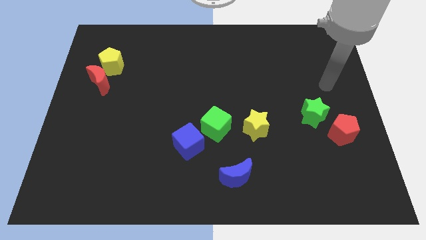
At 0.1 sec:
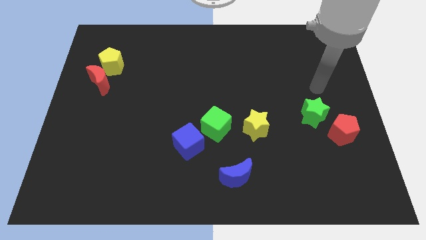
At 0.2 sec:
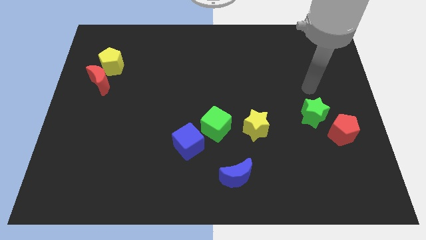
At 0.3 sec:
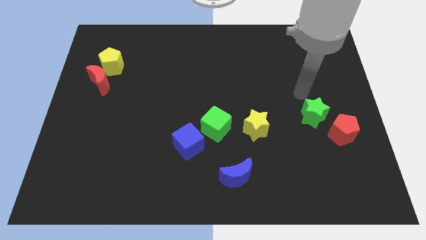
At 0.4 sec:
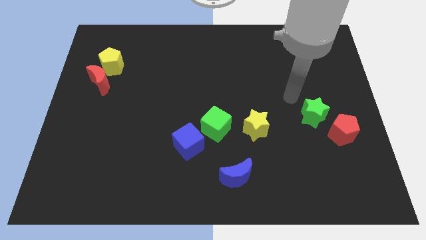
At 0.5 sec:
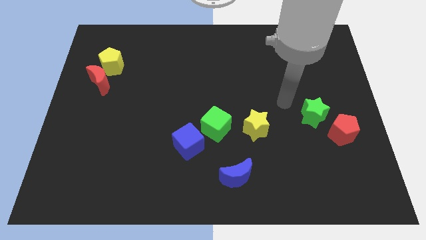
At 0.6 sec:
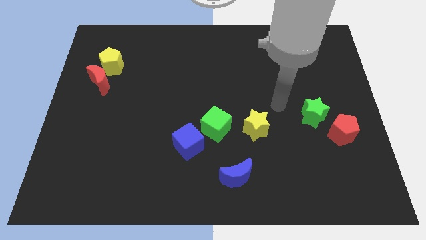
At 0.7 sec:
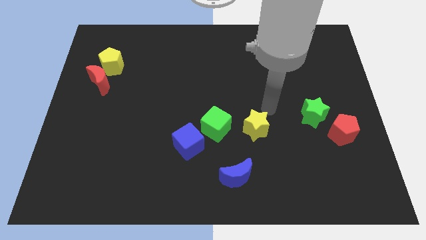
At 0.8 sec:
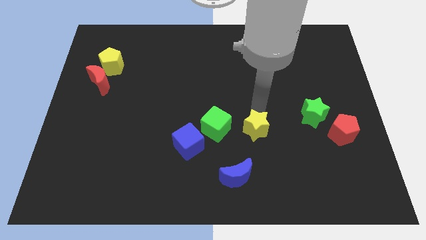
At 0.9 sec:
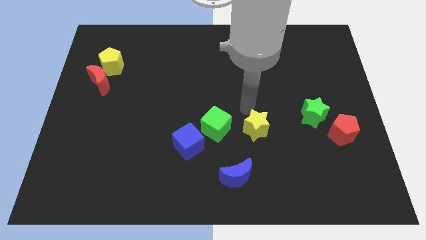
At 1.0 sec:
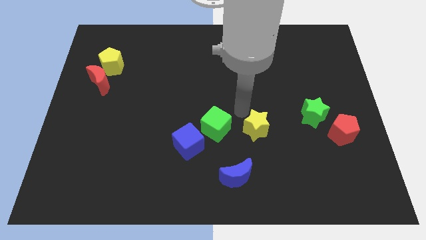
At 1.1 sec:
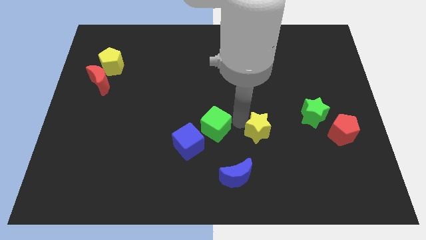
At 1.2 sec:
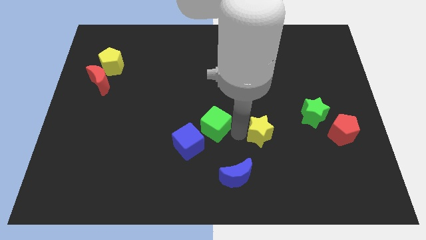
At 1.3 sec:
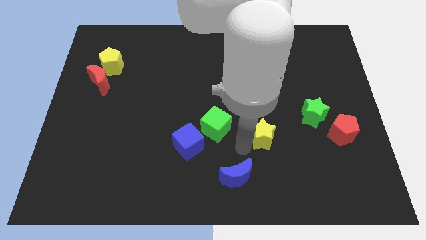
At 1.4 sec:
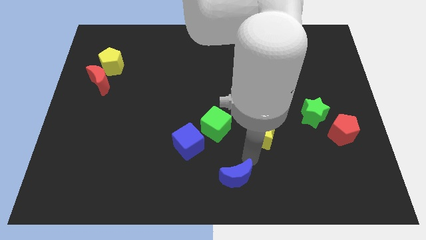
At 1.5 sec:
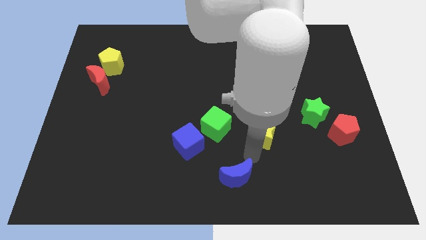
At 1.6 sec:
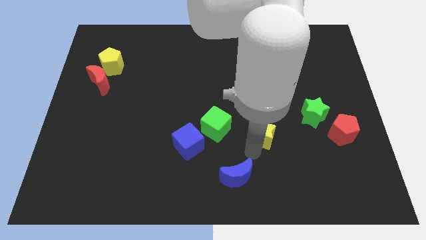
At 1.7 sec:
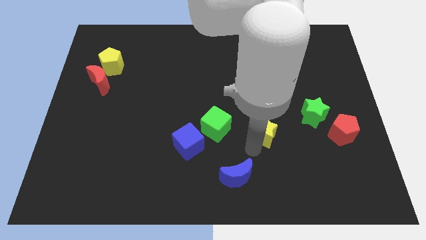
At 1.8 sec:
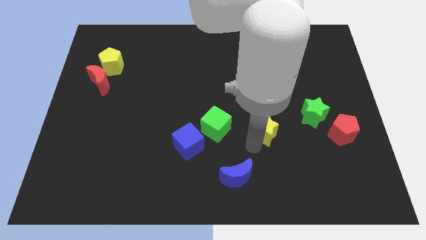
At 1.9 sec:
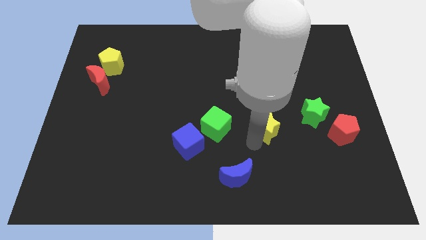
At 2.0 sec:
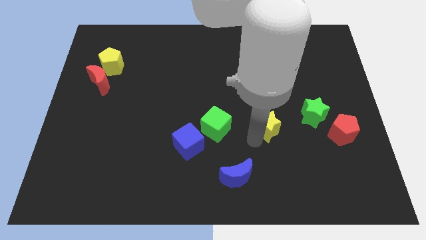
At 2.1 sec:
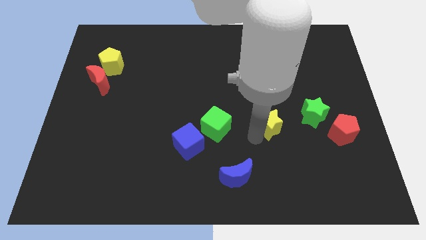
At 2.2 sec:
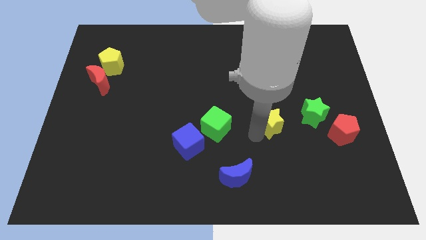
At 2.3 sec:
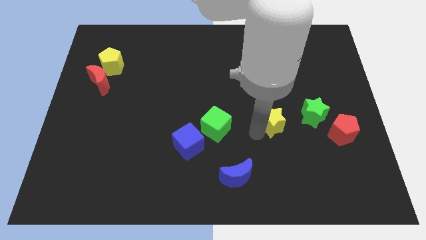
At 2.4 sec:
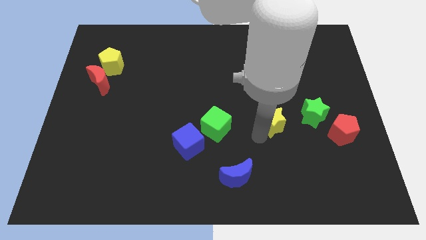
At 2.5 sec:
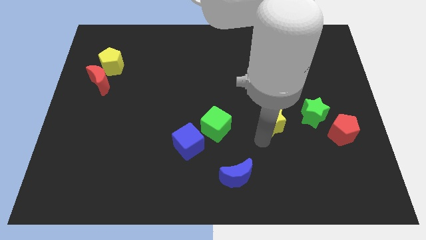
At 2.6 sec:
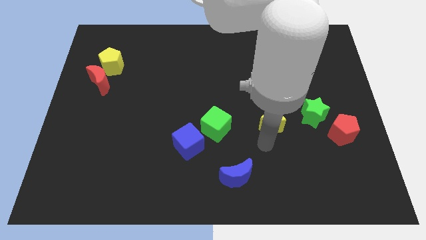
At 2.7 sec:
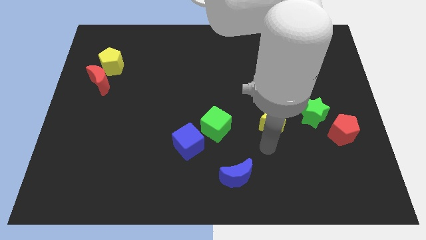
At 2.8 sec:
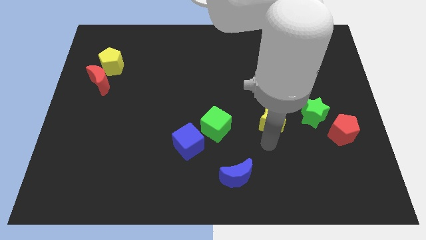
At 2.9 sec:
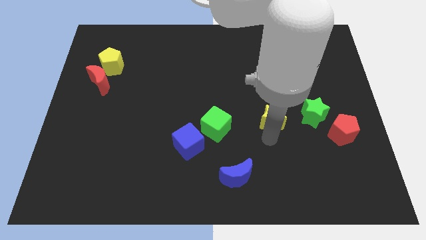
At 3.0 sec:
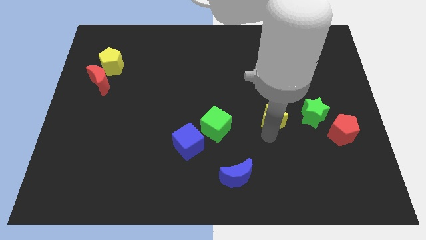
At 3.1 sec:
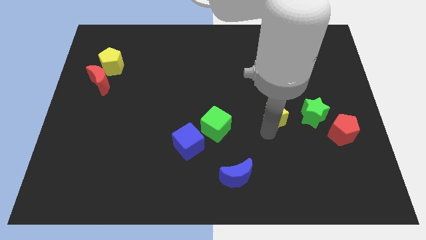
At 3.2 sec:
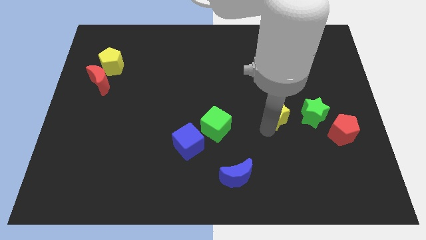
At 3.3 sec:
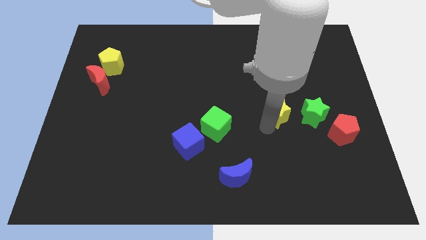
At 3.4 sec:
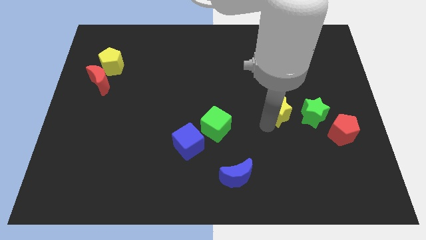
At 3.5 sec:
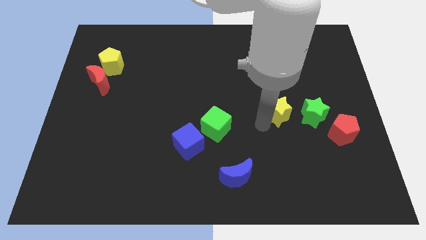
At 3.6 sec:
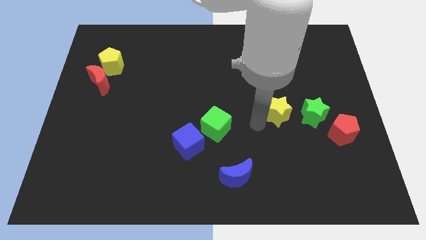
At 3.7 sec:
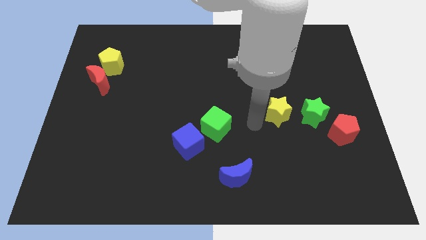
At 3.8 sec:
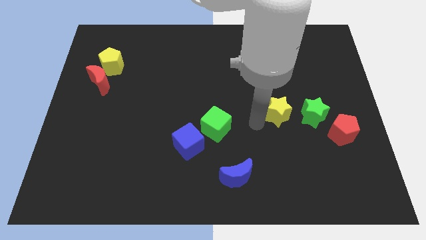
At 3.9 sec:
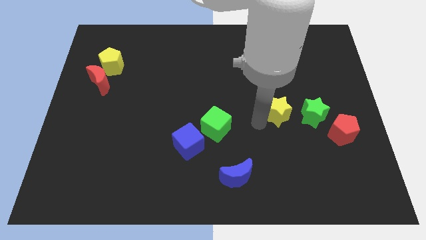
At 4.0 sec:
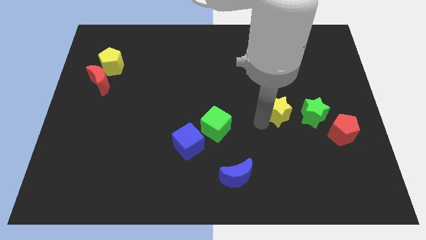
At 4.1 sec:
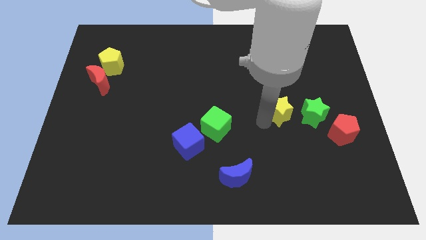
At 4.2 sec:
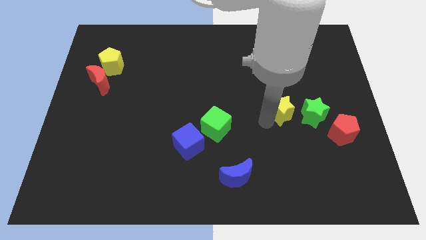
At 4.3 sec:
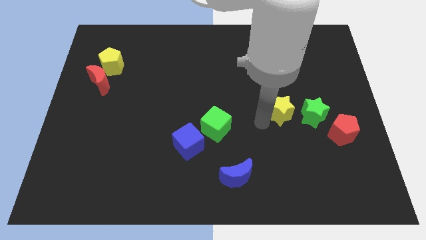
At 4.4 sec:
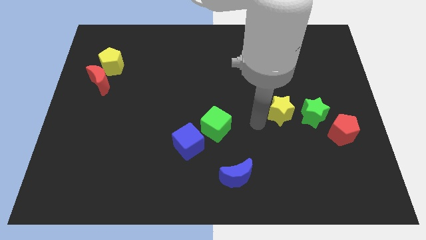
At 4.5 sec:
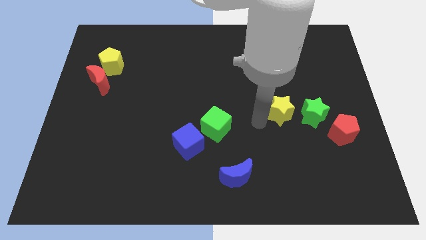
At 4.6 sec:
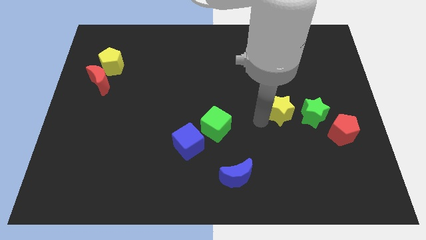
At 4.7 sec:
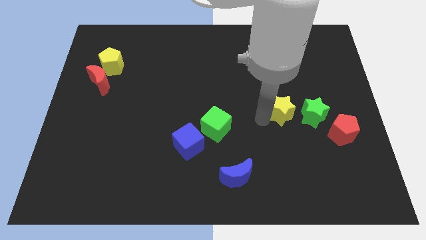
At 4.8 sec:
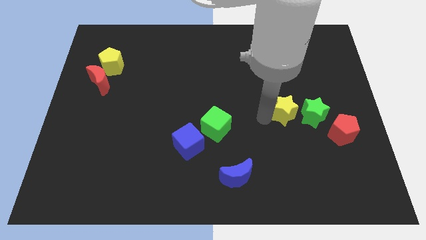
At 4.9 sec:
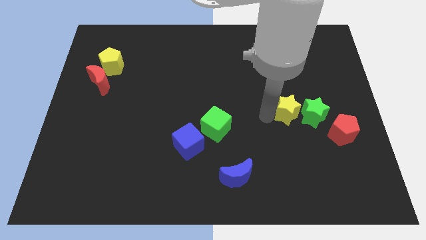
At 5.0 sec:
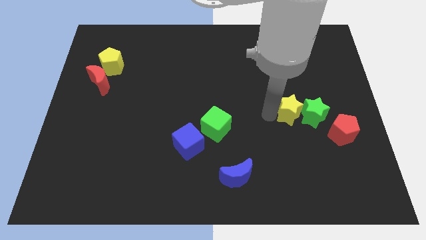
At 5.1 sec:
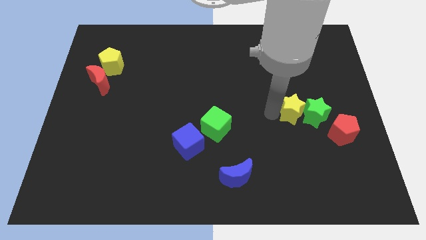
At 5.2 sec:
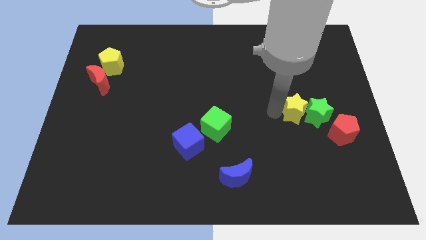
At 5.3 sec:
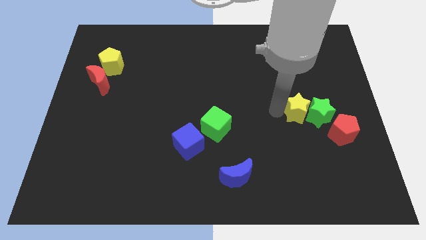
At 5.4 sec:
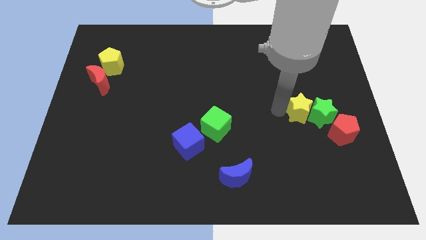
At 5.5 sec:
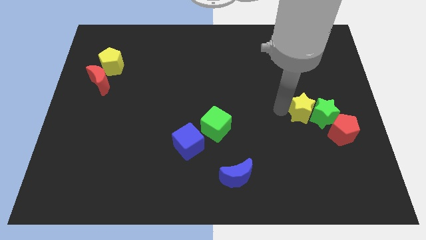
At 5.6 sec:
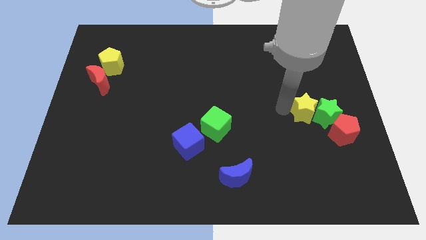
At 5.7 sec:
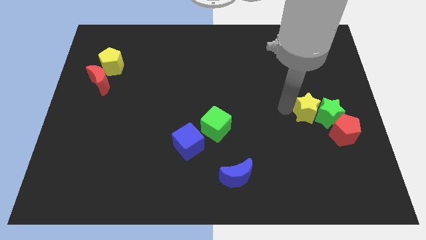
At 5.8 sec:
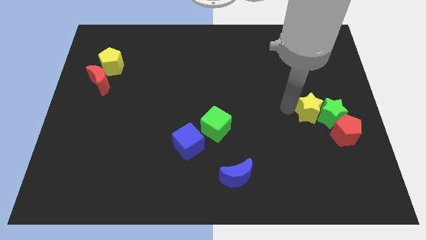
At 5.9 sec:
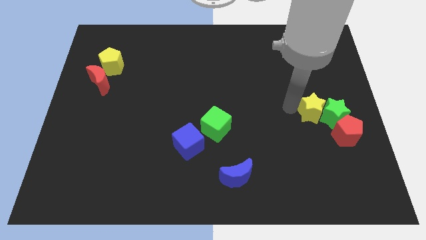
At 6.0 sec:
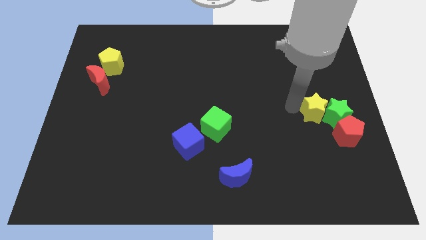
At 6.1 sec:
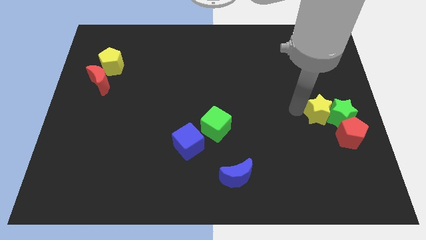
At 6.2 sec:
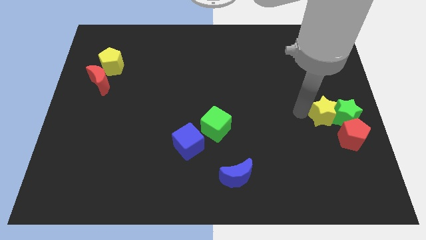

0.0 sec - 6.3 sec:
slide the yellow star to the right side of the board
